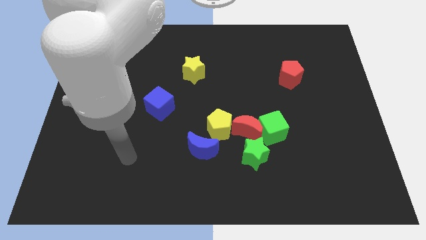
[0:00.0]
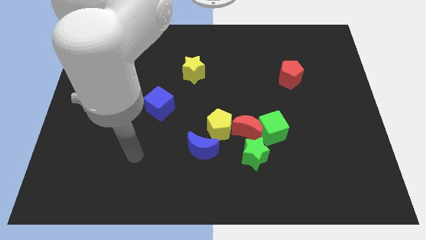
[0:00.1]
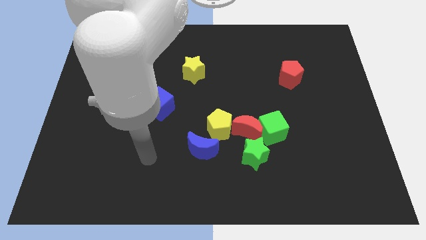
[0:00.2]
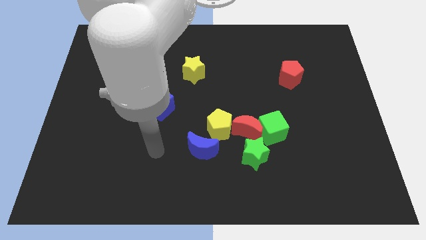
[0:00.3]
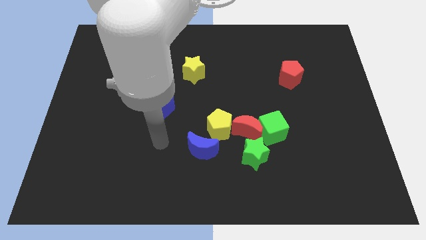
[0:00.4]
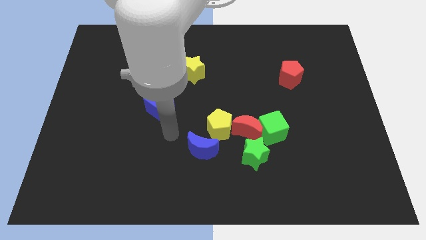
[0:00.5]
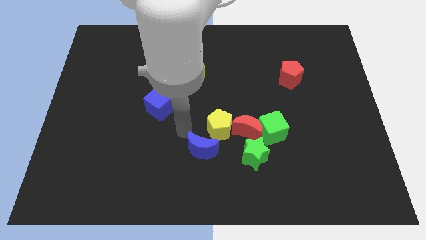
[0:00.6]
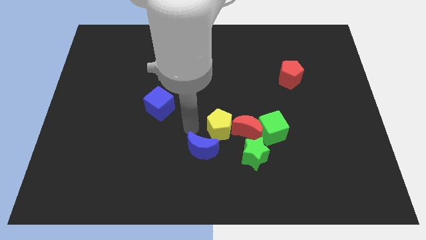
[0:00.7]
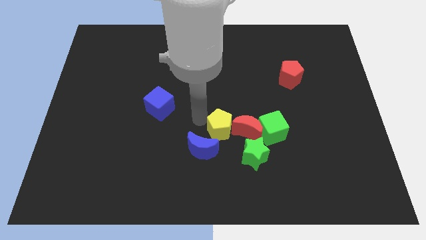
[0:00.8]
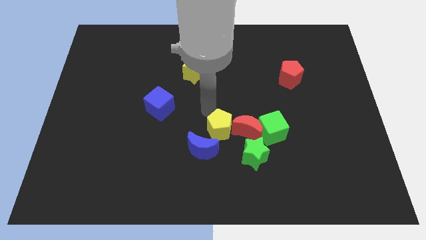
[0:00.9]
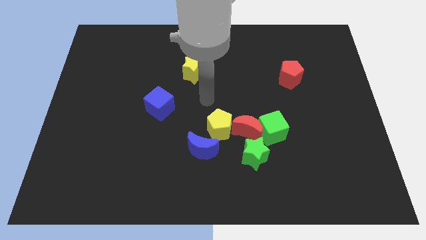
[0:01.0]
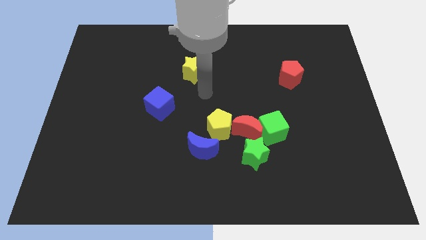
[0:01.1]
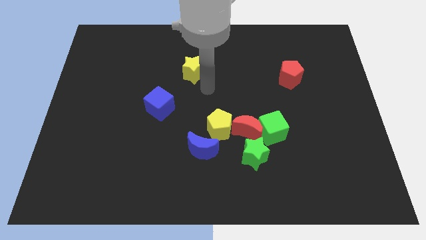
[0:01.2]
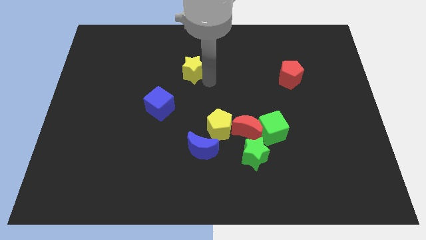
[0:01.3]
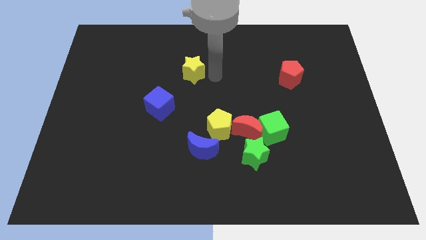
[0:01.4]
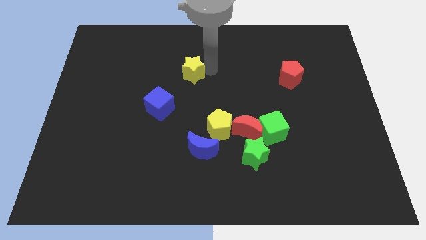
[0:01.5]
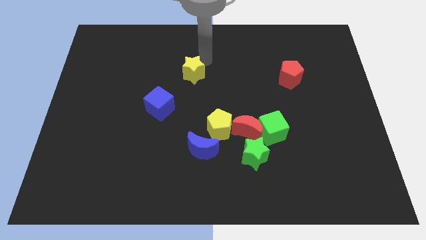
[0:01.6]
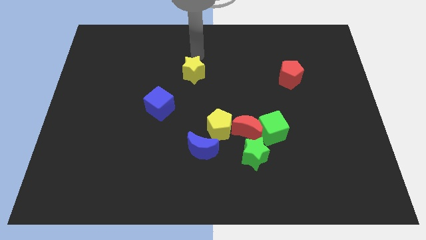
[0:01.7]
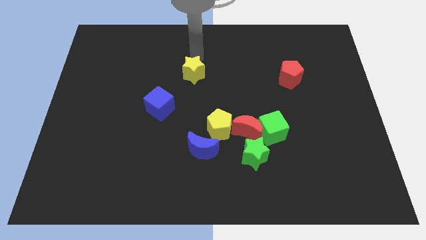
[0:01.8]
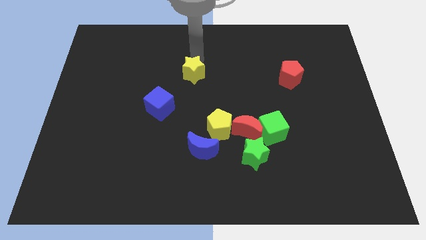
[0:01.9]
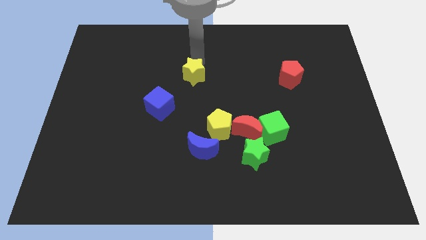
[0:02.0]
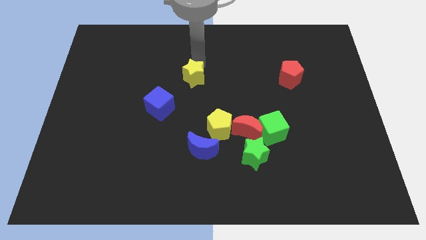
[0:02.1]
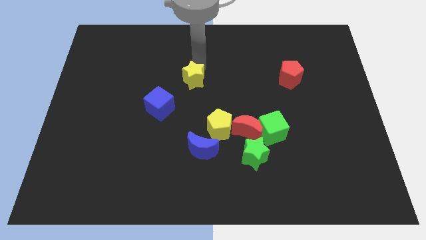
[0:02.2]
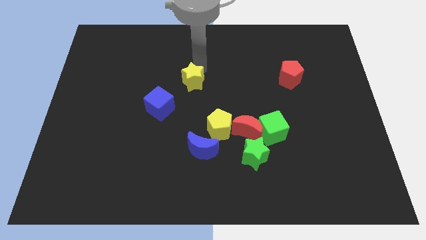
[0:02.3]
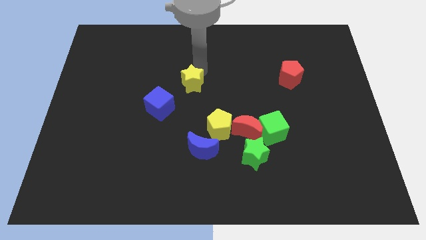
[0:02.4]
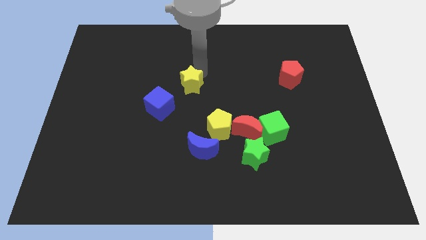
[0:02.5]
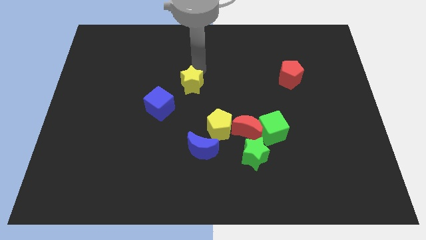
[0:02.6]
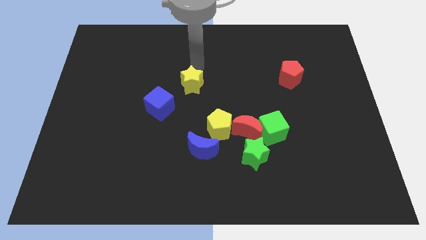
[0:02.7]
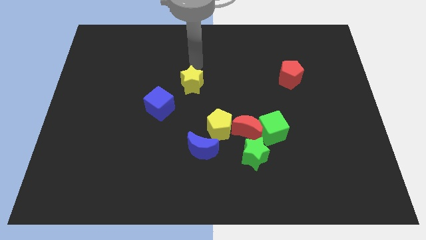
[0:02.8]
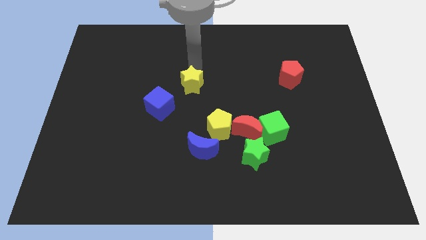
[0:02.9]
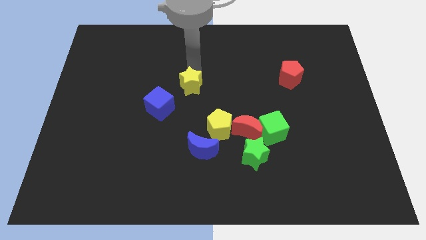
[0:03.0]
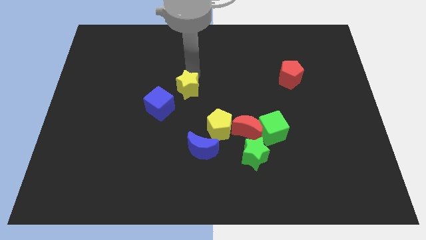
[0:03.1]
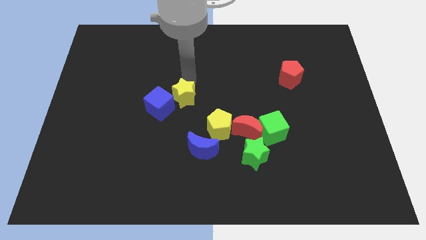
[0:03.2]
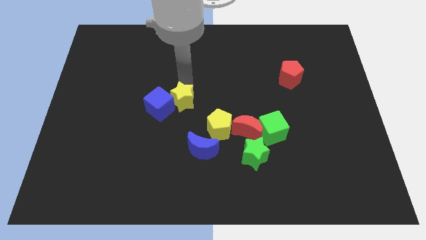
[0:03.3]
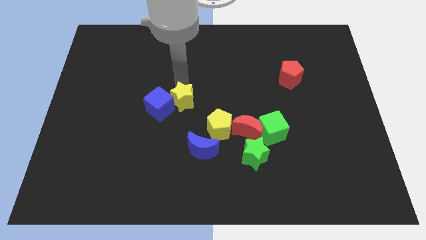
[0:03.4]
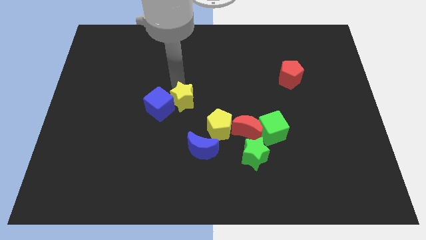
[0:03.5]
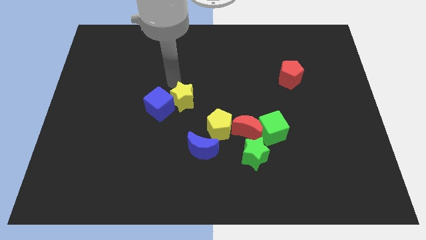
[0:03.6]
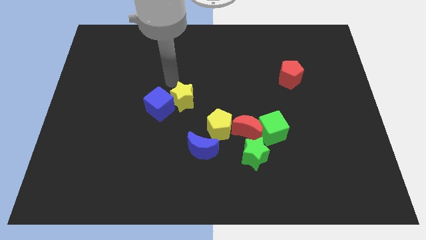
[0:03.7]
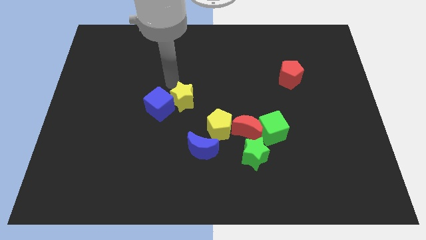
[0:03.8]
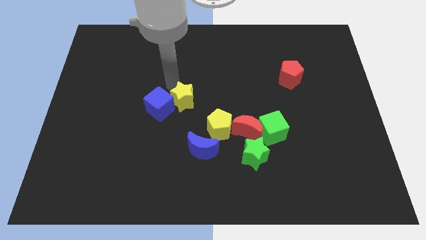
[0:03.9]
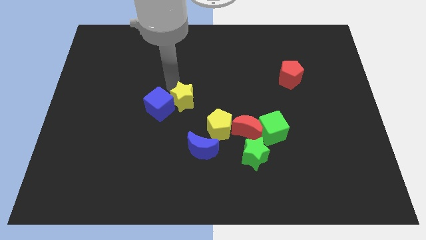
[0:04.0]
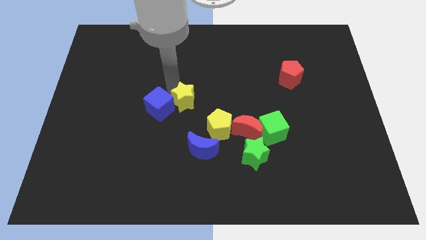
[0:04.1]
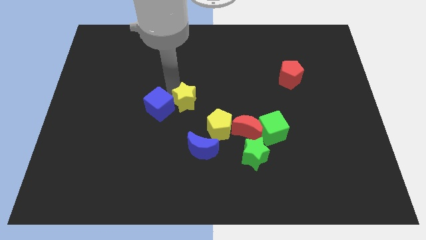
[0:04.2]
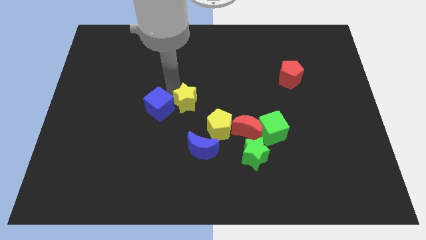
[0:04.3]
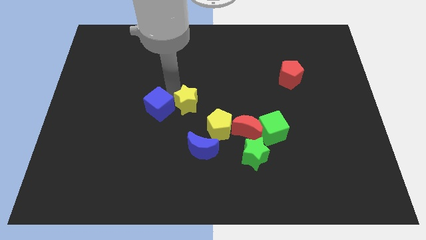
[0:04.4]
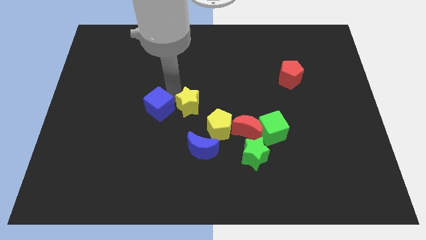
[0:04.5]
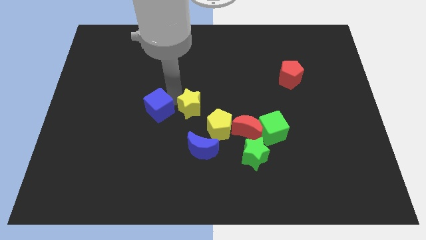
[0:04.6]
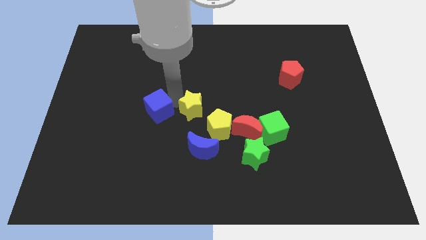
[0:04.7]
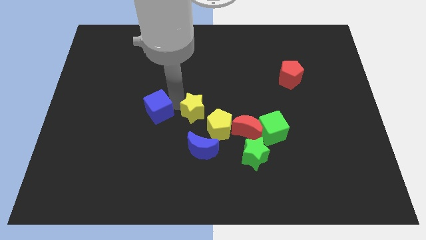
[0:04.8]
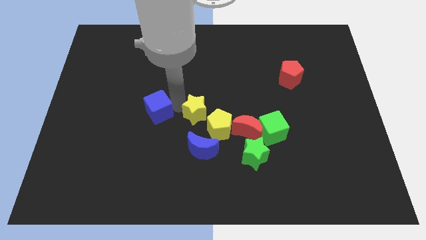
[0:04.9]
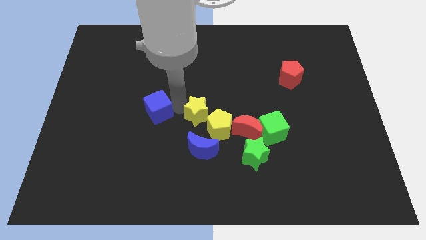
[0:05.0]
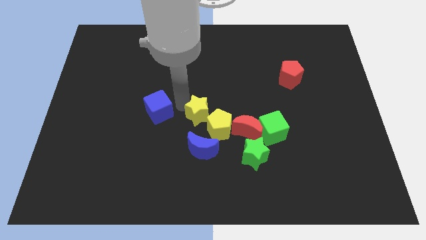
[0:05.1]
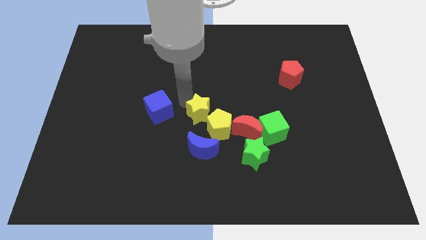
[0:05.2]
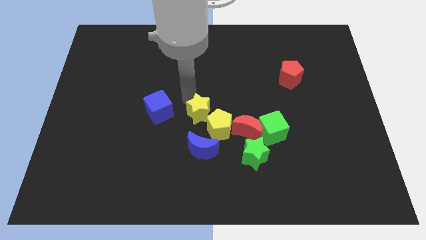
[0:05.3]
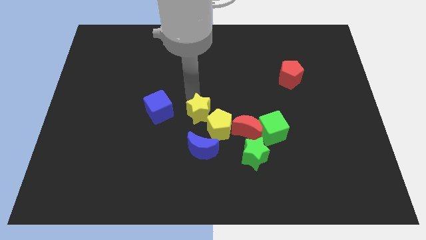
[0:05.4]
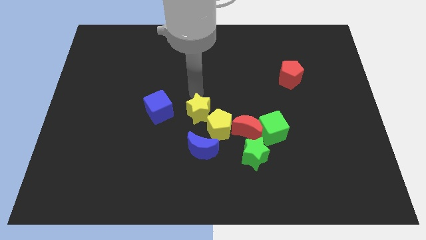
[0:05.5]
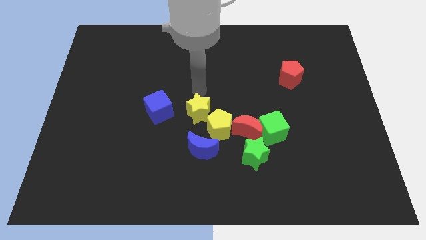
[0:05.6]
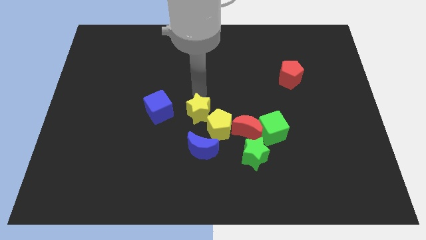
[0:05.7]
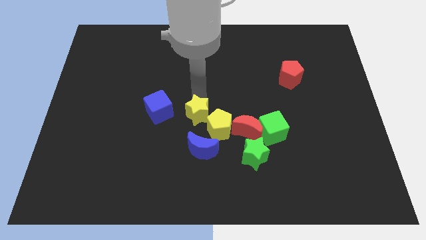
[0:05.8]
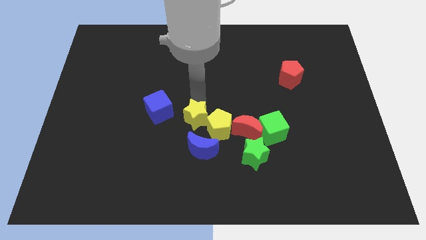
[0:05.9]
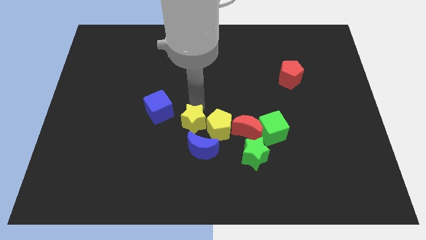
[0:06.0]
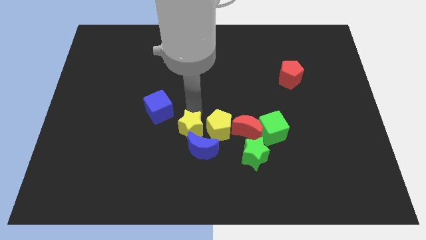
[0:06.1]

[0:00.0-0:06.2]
move the yellow star next to the blue moon
